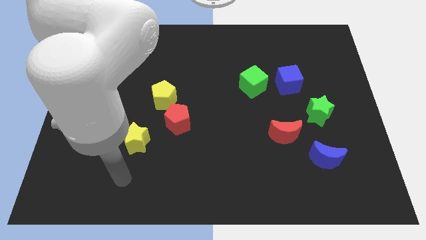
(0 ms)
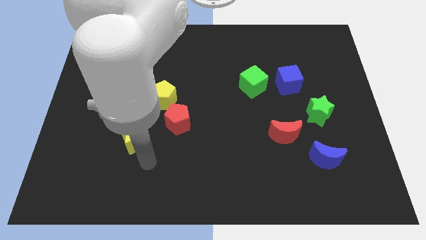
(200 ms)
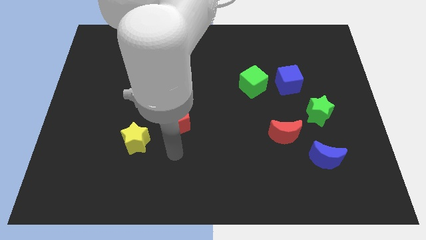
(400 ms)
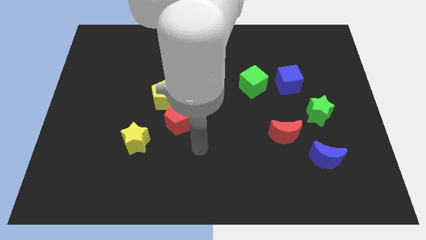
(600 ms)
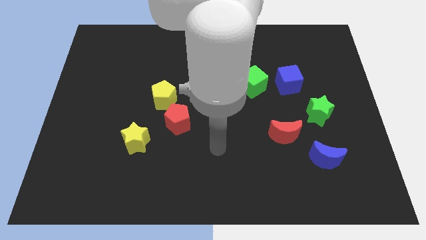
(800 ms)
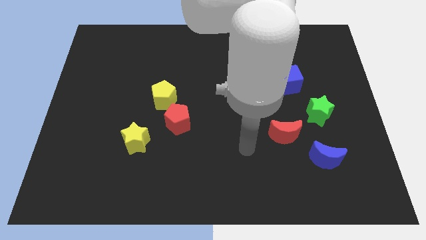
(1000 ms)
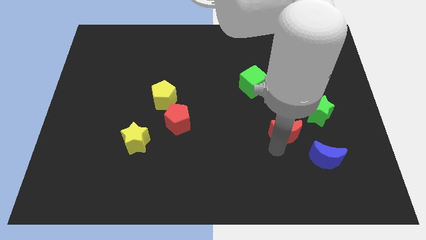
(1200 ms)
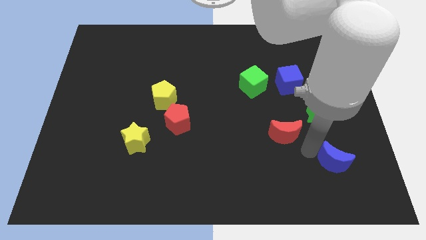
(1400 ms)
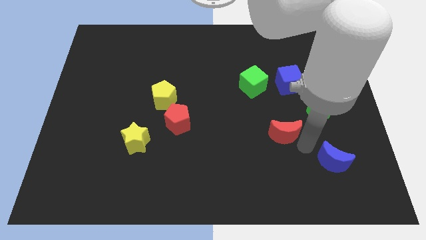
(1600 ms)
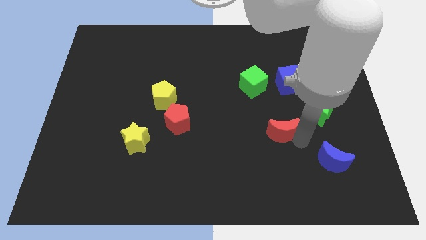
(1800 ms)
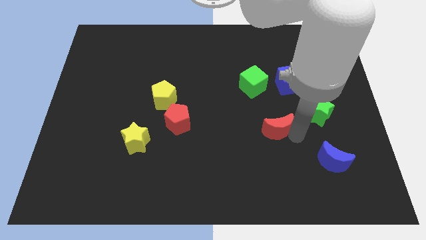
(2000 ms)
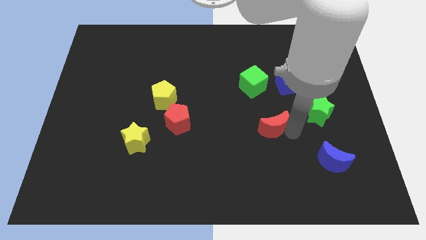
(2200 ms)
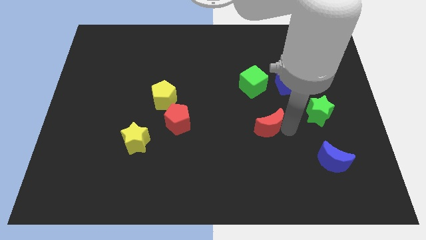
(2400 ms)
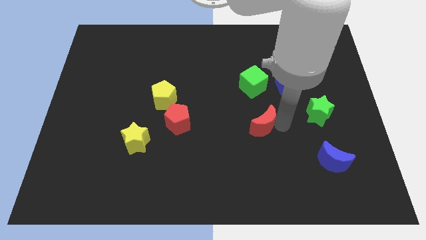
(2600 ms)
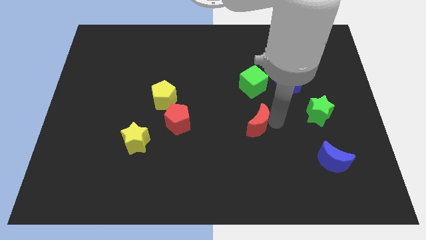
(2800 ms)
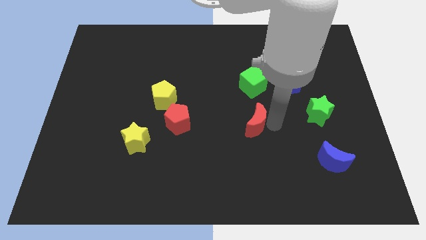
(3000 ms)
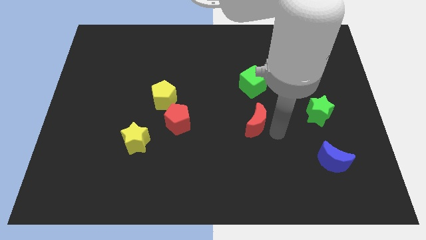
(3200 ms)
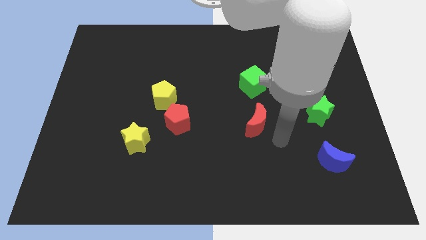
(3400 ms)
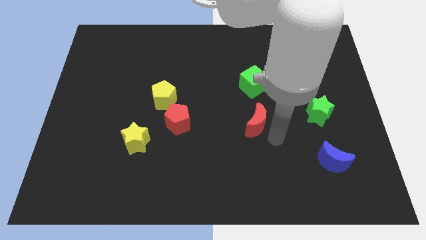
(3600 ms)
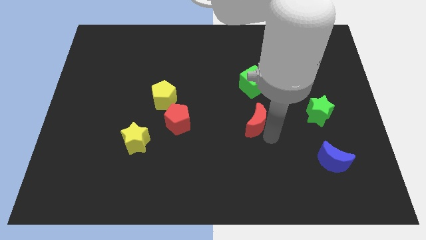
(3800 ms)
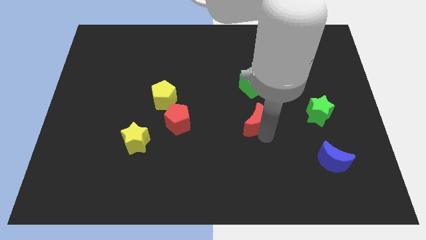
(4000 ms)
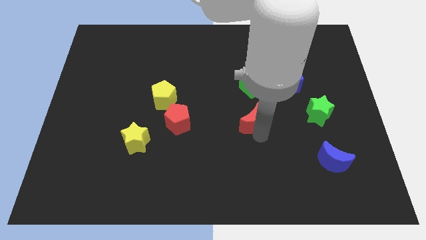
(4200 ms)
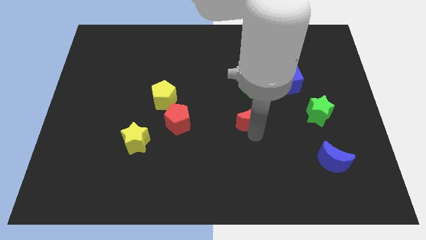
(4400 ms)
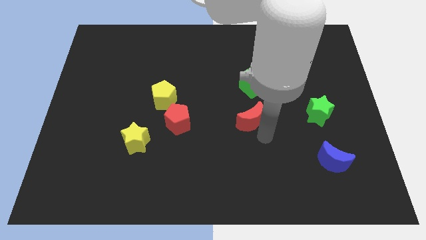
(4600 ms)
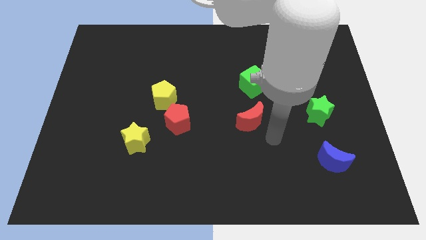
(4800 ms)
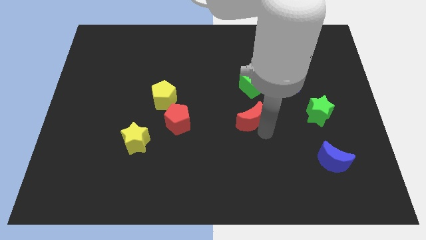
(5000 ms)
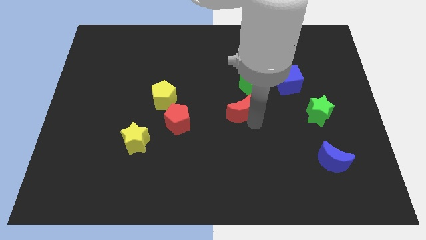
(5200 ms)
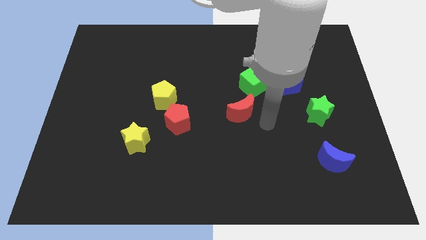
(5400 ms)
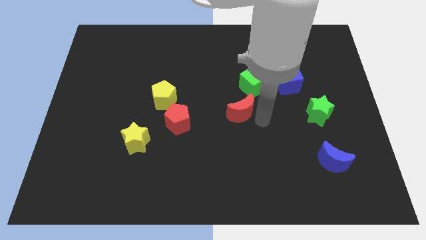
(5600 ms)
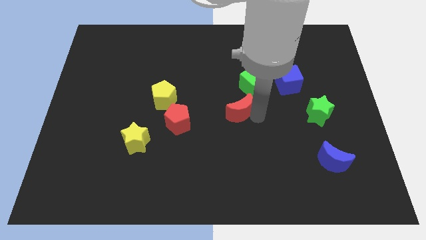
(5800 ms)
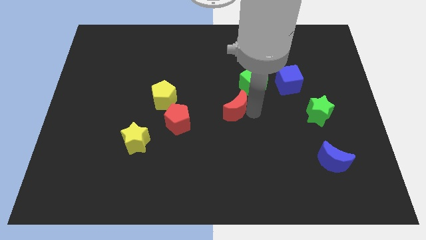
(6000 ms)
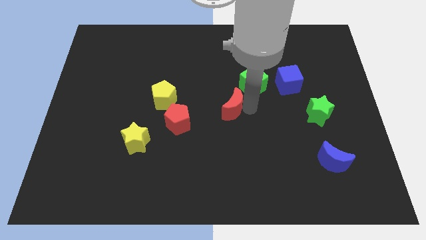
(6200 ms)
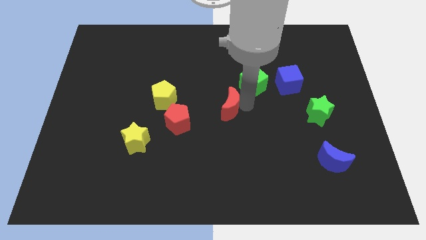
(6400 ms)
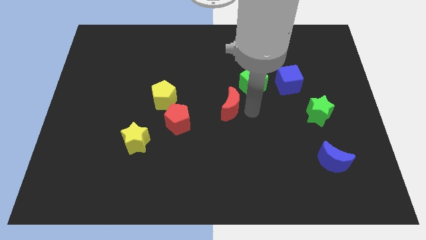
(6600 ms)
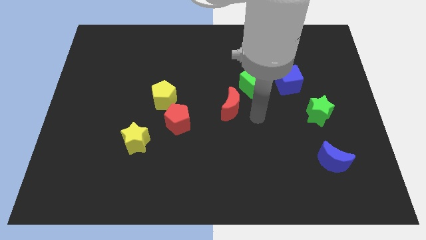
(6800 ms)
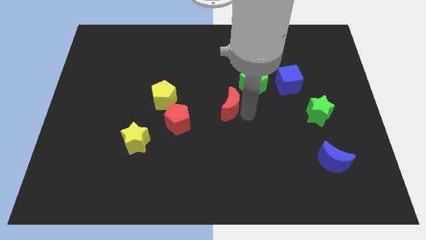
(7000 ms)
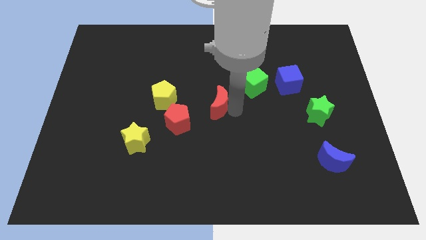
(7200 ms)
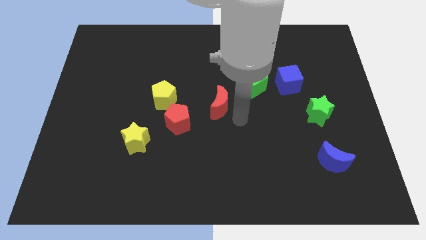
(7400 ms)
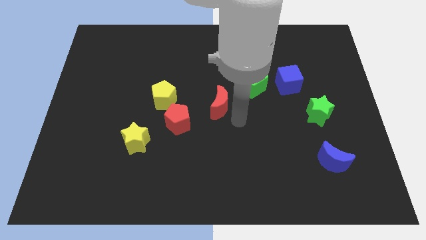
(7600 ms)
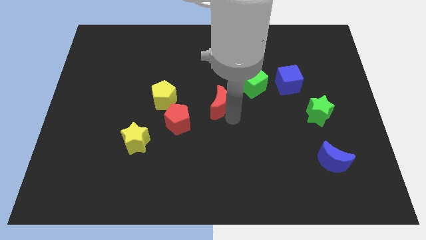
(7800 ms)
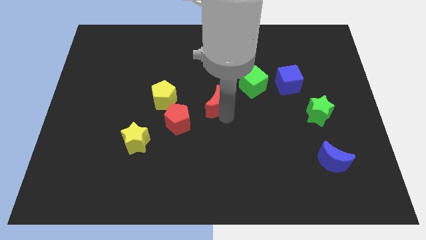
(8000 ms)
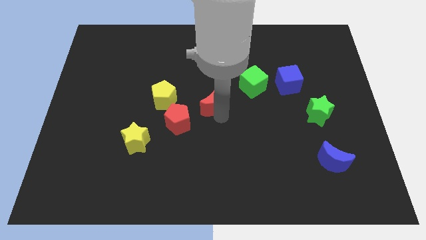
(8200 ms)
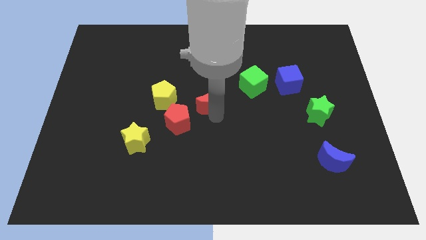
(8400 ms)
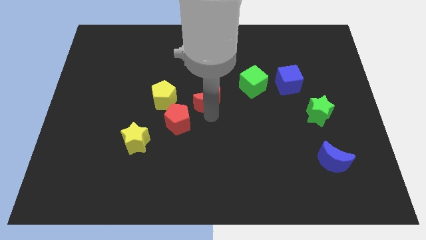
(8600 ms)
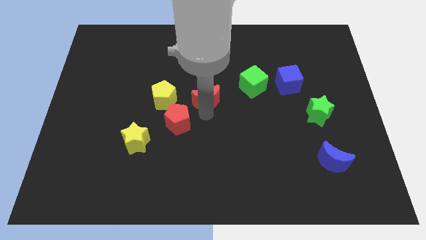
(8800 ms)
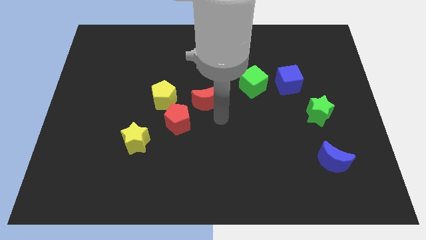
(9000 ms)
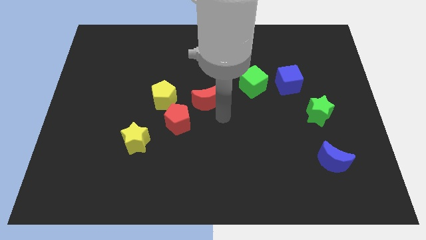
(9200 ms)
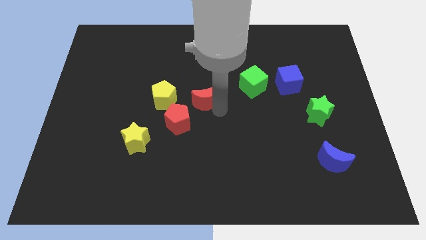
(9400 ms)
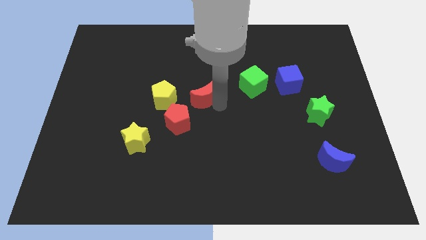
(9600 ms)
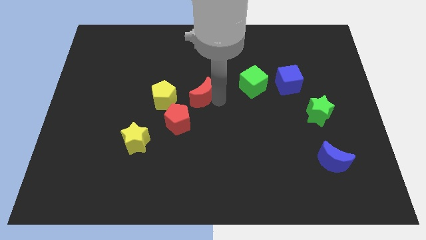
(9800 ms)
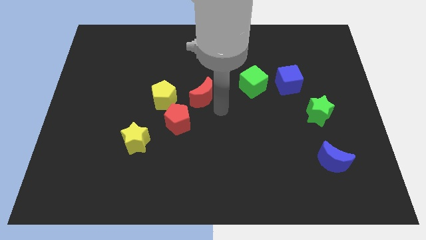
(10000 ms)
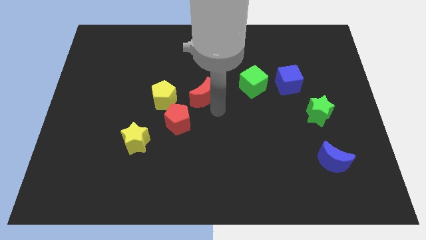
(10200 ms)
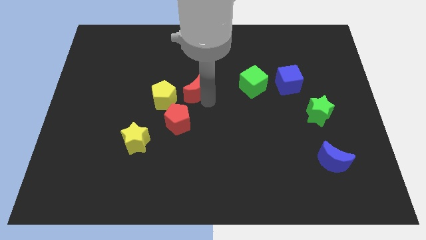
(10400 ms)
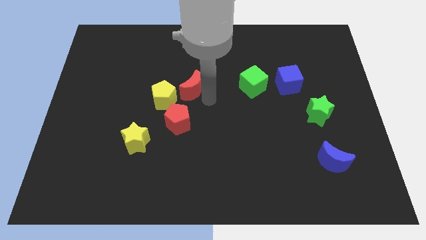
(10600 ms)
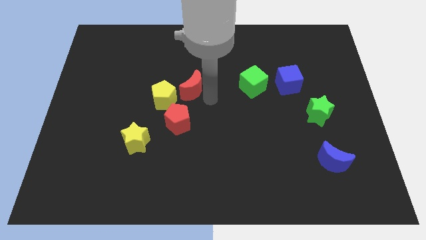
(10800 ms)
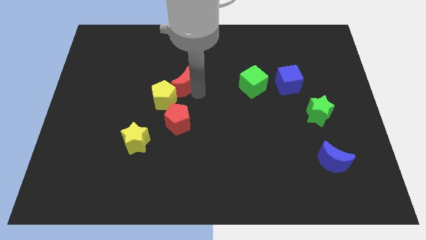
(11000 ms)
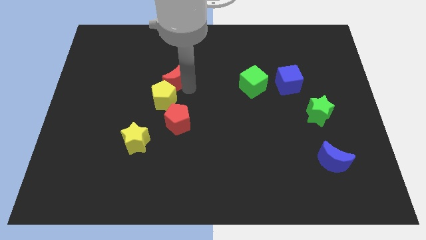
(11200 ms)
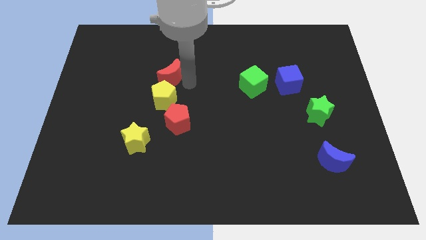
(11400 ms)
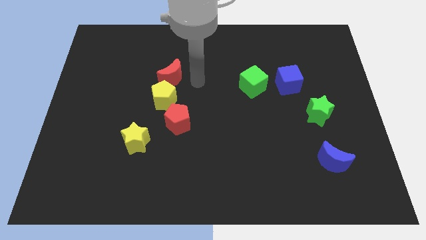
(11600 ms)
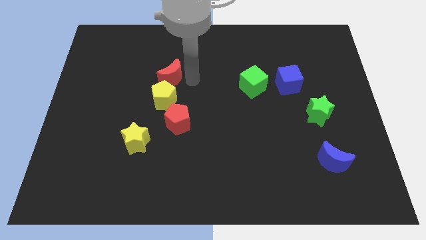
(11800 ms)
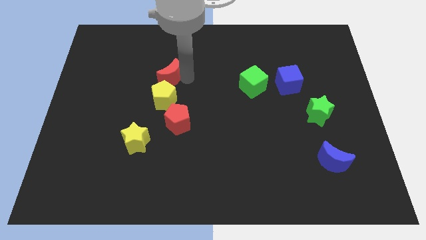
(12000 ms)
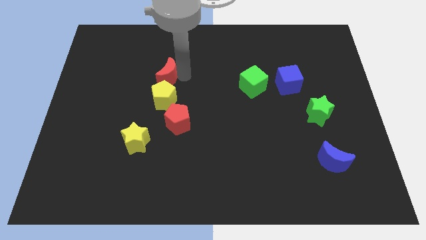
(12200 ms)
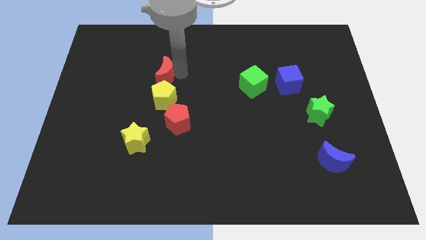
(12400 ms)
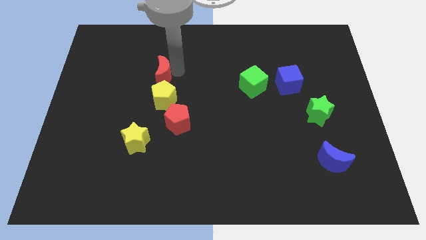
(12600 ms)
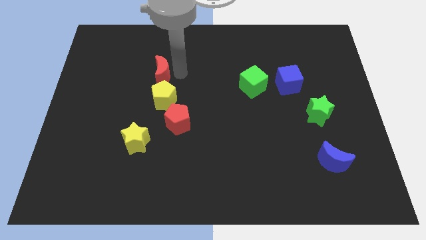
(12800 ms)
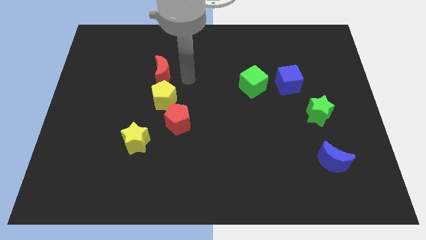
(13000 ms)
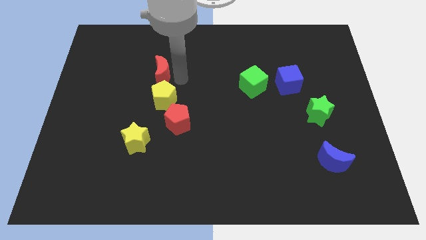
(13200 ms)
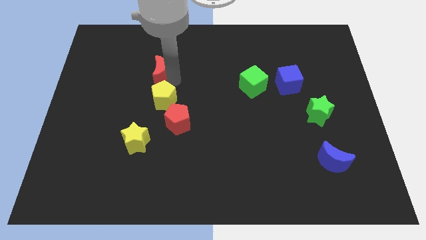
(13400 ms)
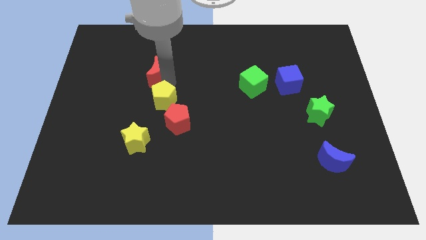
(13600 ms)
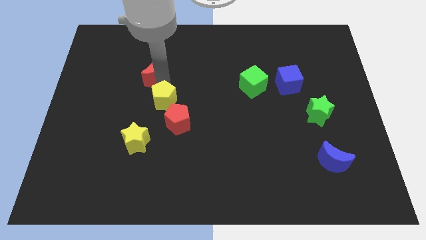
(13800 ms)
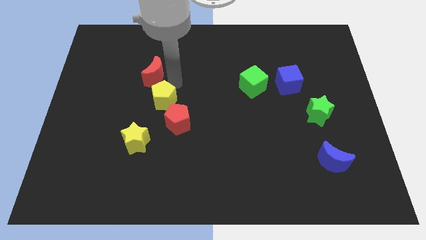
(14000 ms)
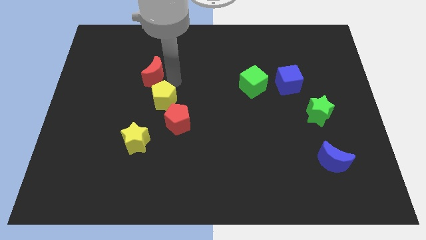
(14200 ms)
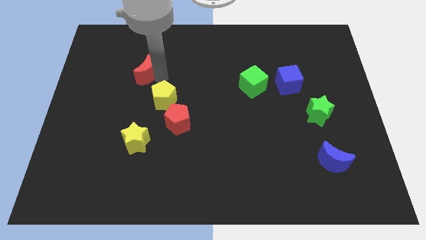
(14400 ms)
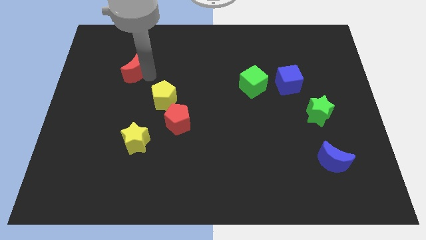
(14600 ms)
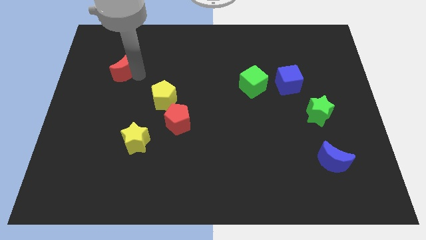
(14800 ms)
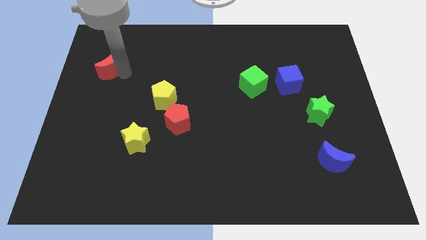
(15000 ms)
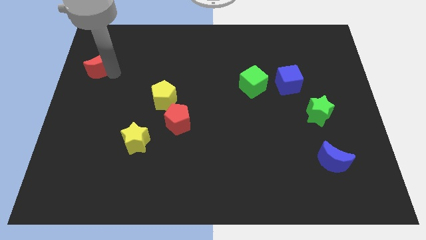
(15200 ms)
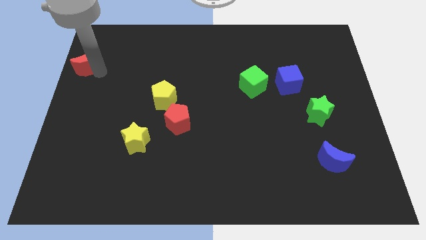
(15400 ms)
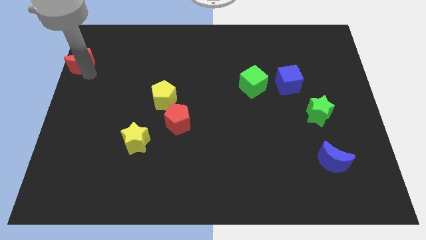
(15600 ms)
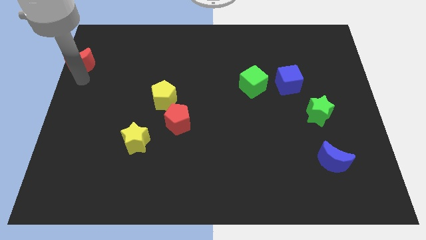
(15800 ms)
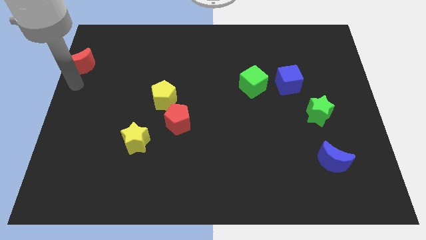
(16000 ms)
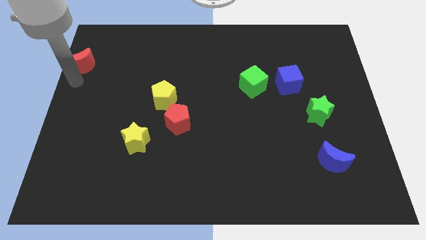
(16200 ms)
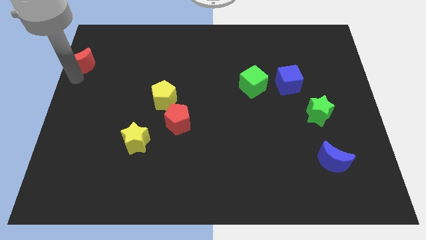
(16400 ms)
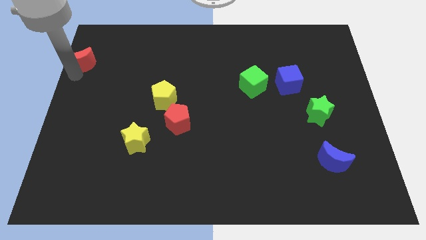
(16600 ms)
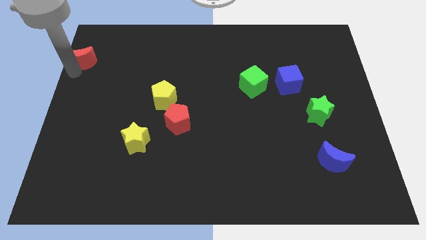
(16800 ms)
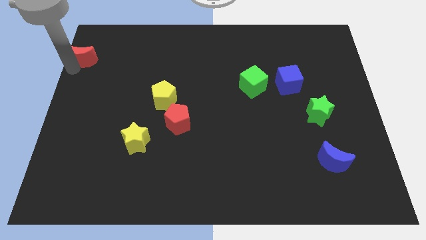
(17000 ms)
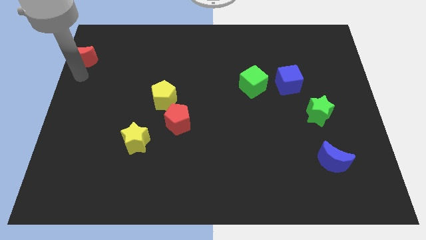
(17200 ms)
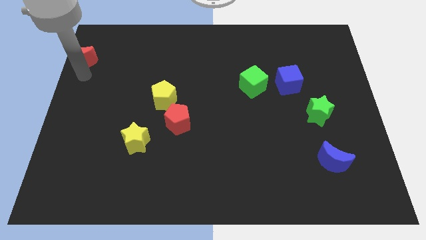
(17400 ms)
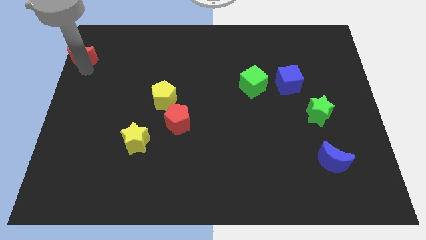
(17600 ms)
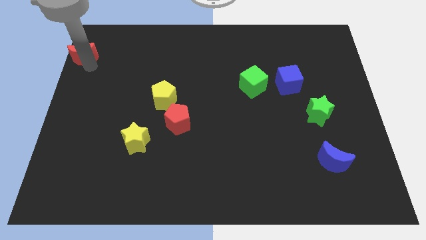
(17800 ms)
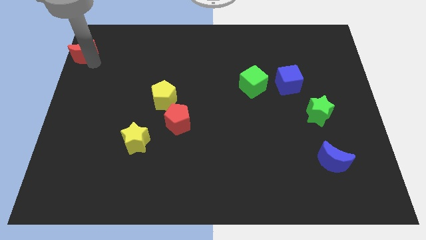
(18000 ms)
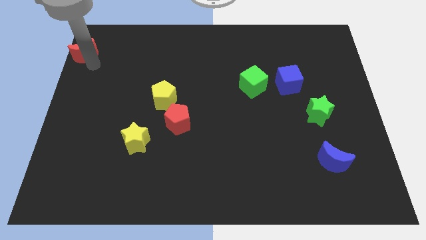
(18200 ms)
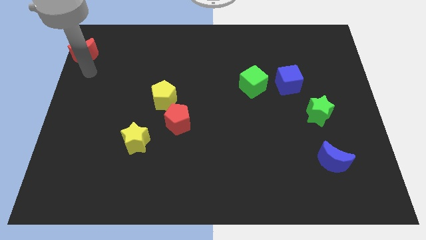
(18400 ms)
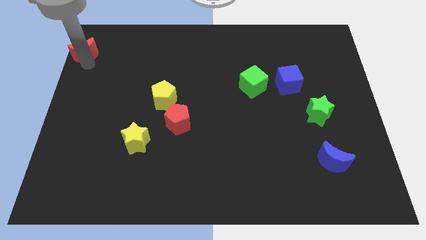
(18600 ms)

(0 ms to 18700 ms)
move the red moon to the top left corner
